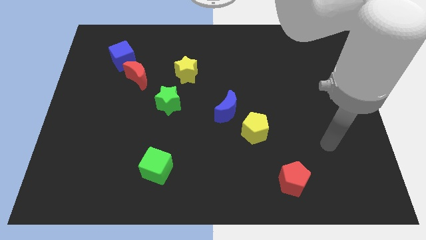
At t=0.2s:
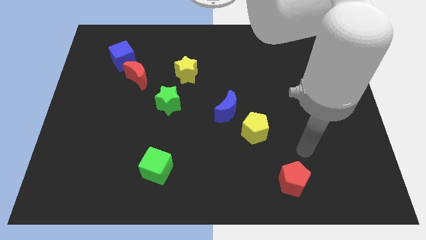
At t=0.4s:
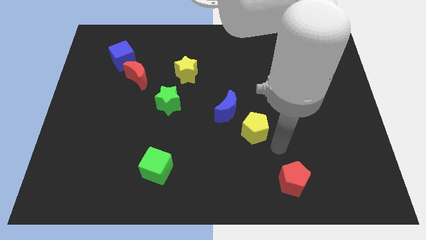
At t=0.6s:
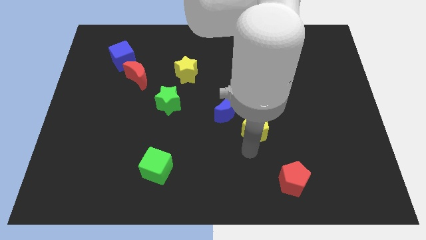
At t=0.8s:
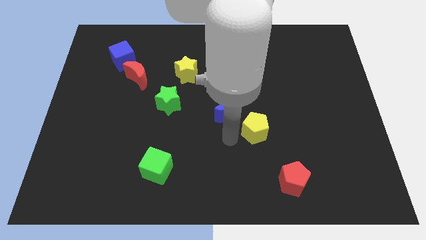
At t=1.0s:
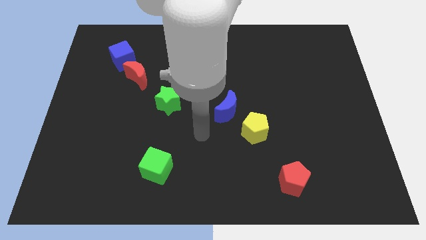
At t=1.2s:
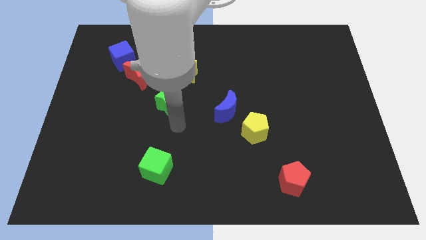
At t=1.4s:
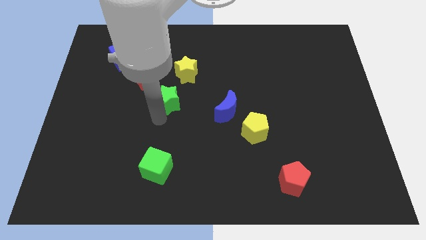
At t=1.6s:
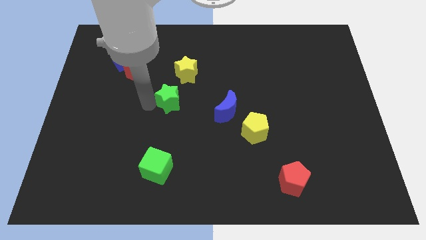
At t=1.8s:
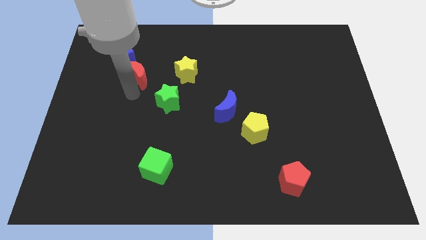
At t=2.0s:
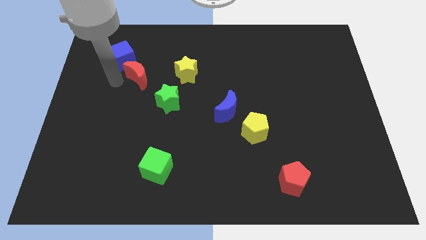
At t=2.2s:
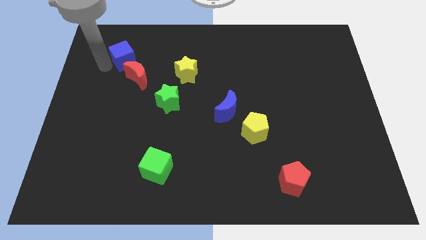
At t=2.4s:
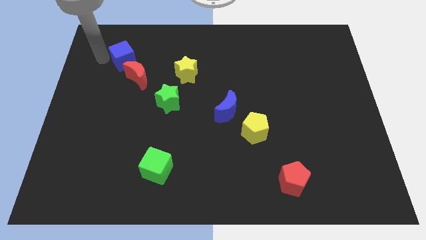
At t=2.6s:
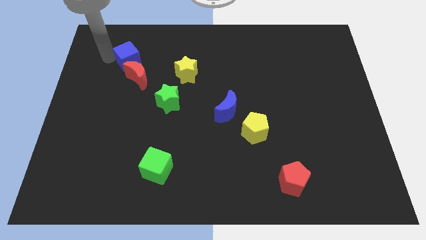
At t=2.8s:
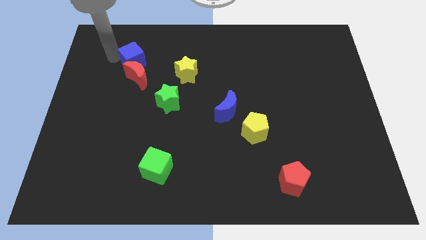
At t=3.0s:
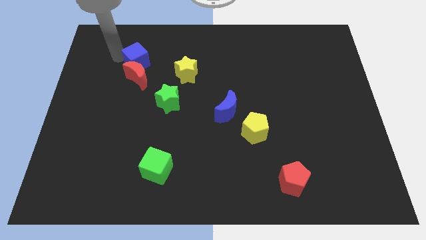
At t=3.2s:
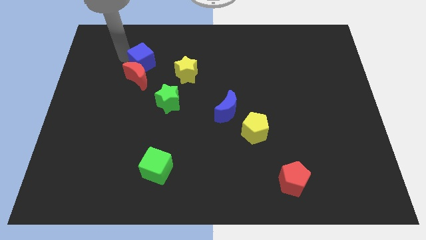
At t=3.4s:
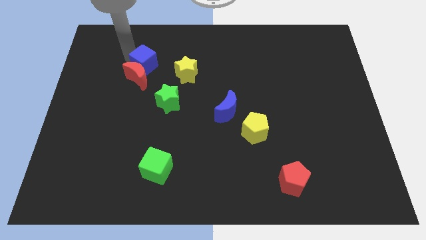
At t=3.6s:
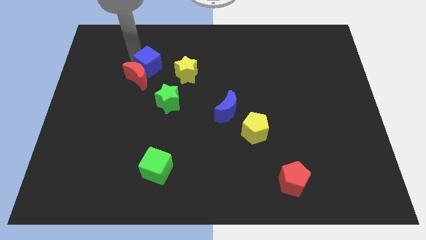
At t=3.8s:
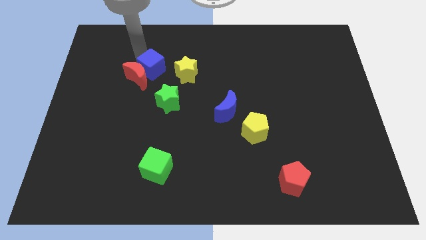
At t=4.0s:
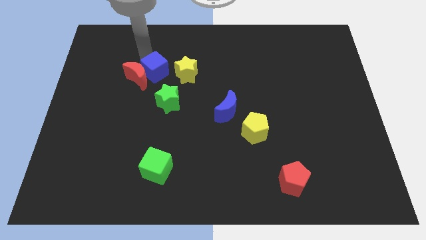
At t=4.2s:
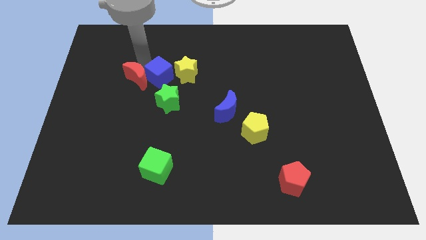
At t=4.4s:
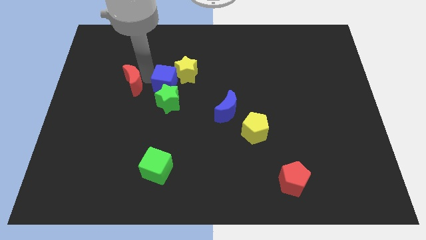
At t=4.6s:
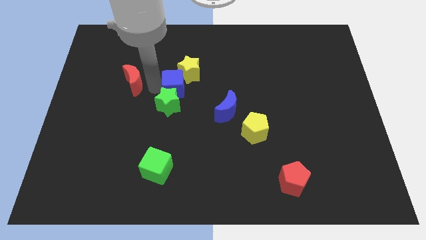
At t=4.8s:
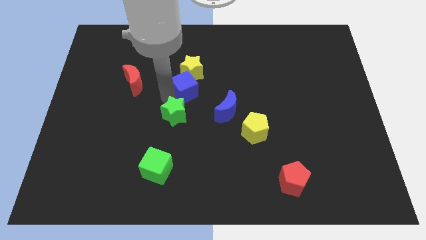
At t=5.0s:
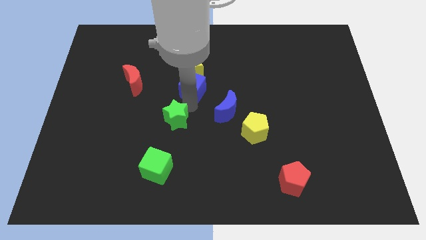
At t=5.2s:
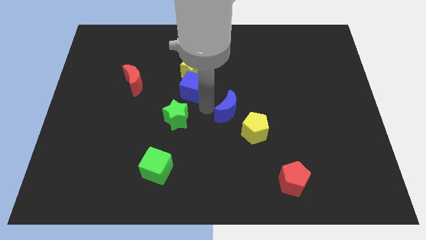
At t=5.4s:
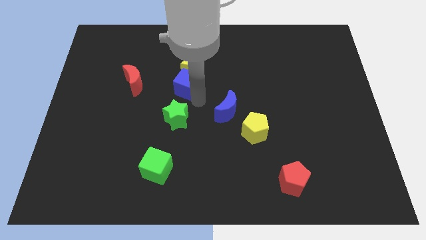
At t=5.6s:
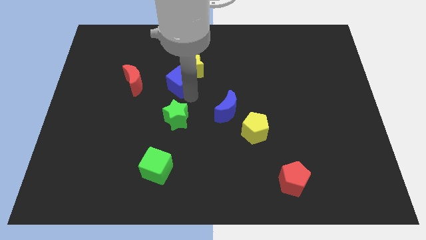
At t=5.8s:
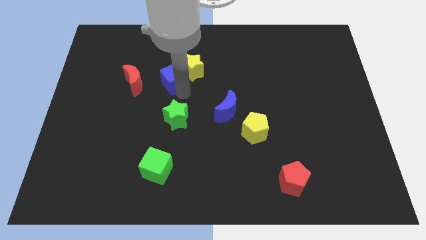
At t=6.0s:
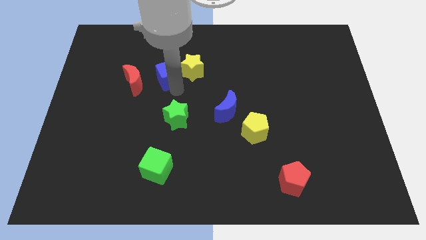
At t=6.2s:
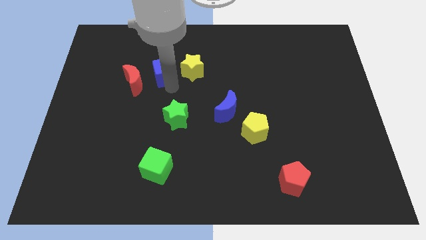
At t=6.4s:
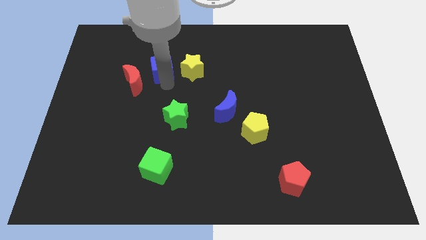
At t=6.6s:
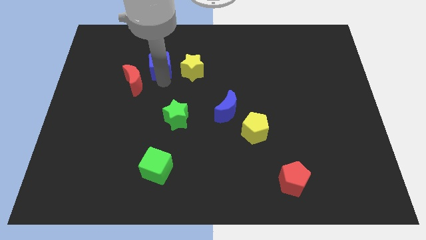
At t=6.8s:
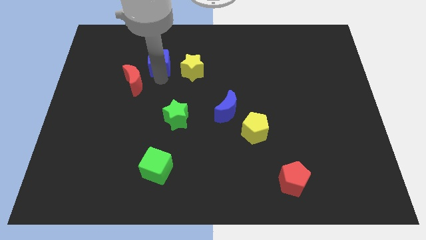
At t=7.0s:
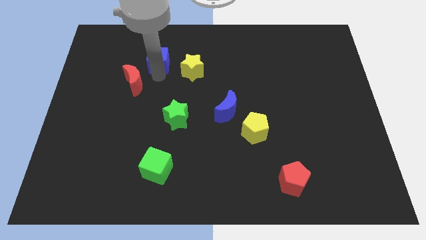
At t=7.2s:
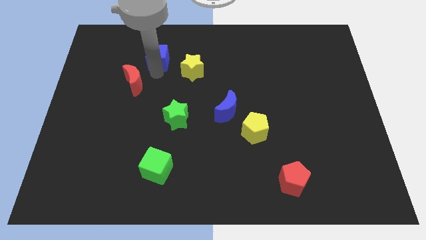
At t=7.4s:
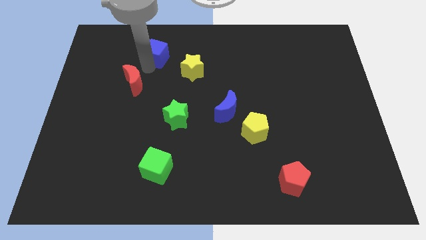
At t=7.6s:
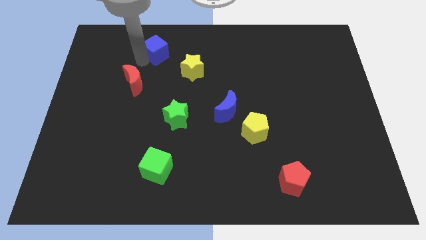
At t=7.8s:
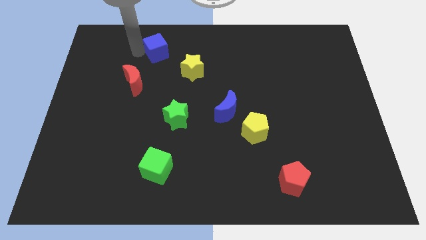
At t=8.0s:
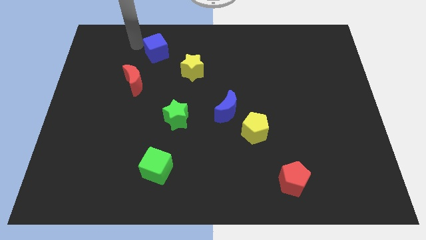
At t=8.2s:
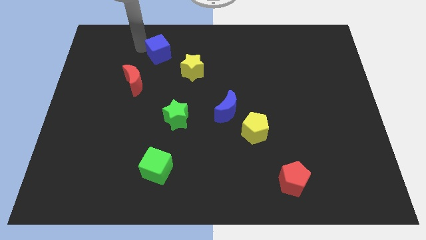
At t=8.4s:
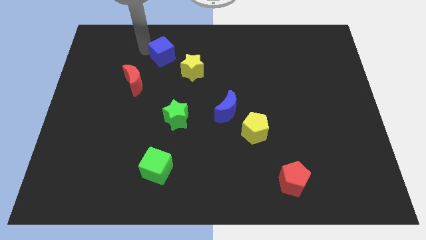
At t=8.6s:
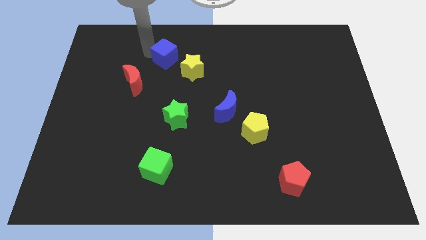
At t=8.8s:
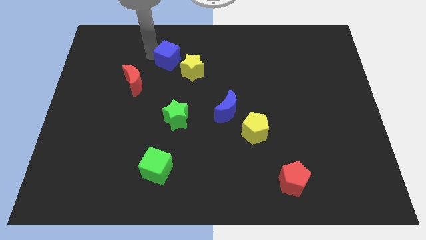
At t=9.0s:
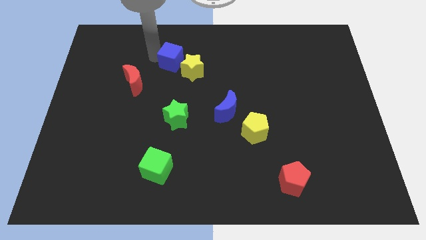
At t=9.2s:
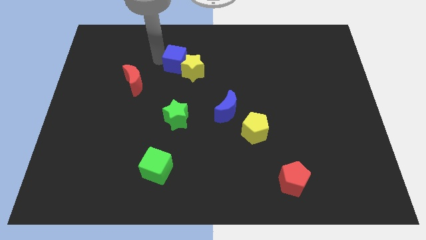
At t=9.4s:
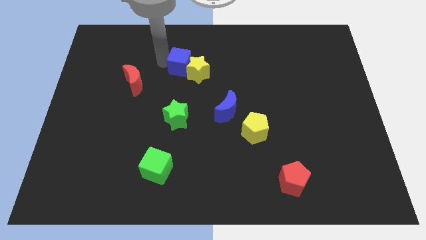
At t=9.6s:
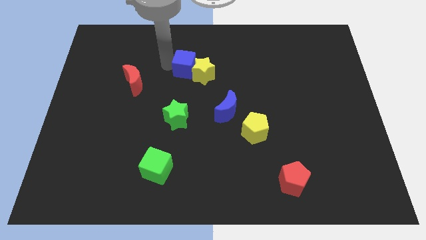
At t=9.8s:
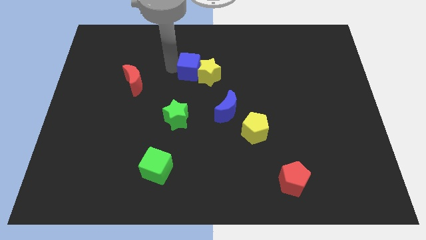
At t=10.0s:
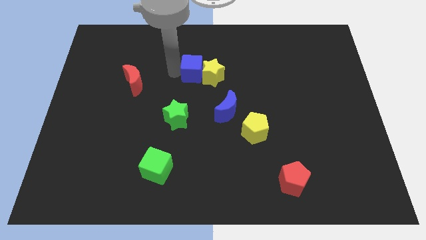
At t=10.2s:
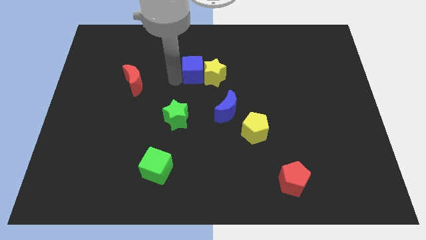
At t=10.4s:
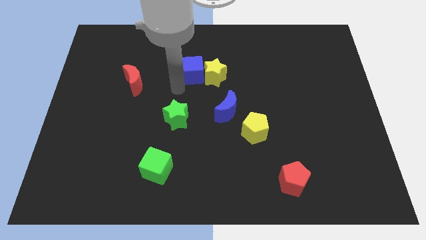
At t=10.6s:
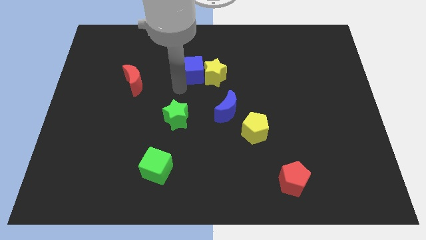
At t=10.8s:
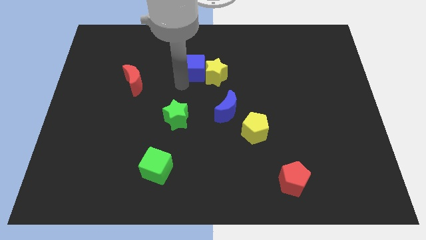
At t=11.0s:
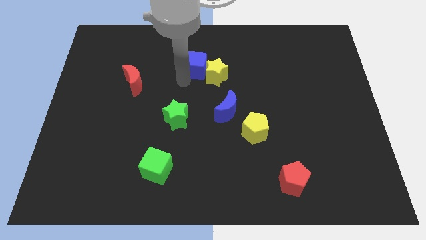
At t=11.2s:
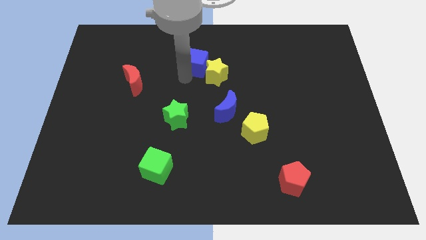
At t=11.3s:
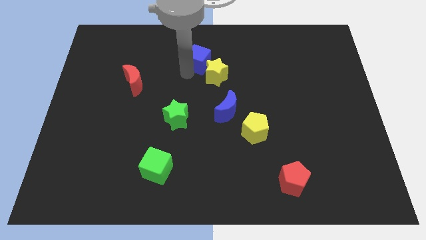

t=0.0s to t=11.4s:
push the blue cube to the right

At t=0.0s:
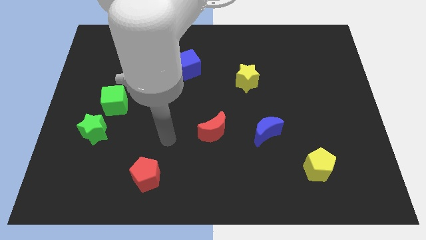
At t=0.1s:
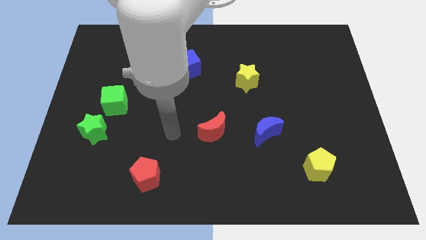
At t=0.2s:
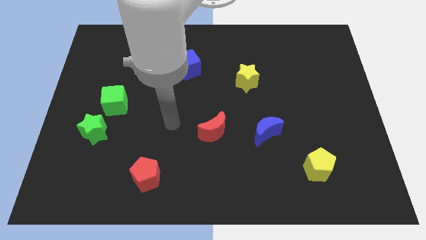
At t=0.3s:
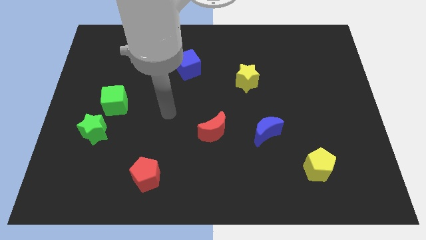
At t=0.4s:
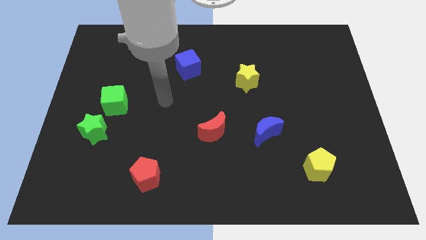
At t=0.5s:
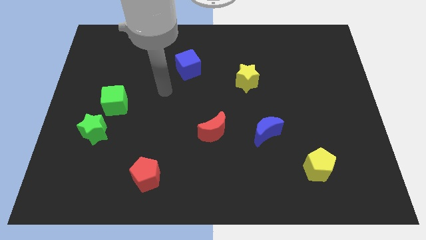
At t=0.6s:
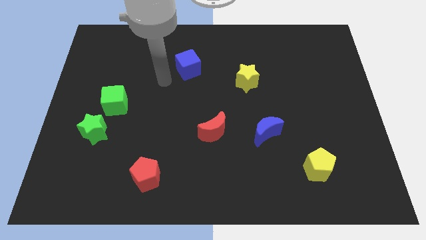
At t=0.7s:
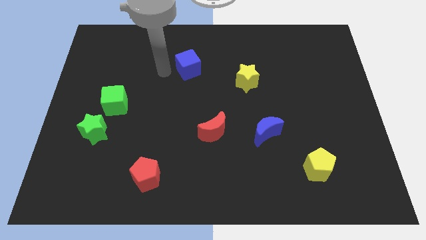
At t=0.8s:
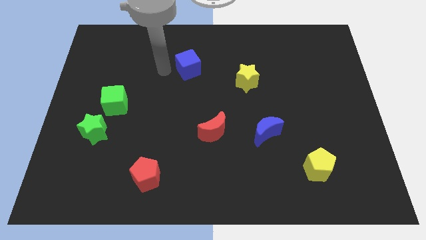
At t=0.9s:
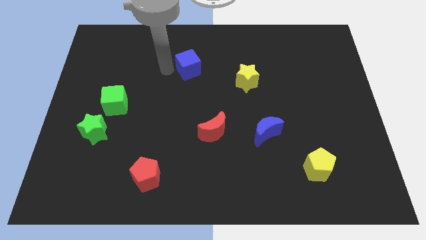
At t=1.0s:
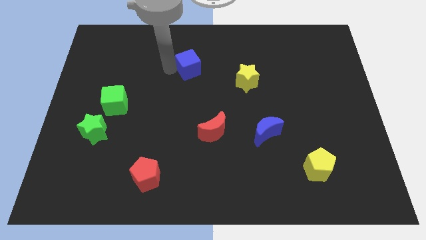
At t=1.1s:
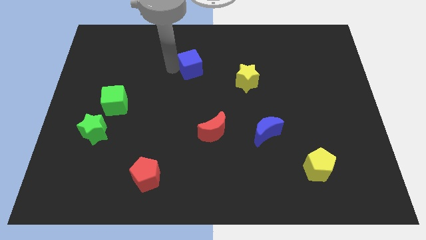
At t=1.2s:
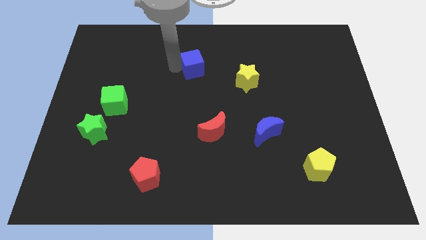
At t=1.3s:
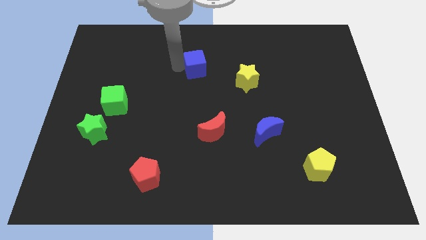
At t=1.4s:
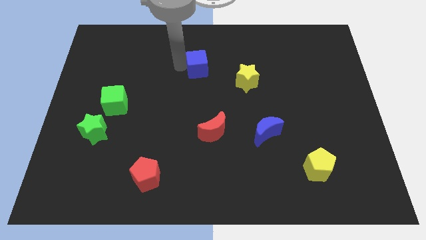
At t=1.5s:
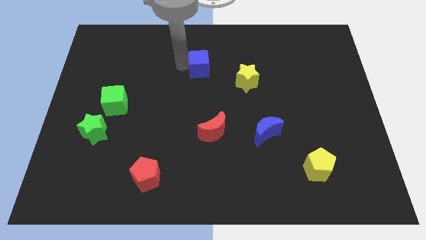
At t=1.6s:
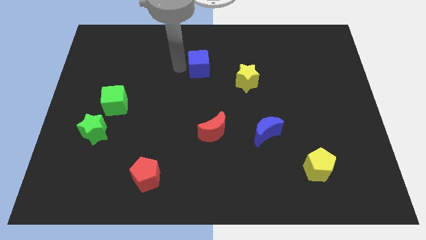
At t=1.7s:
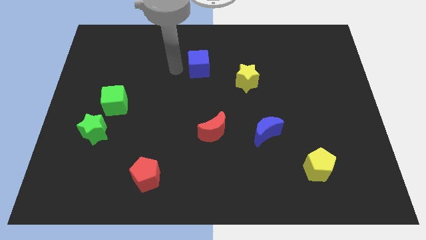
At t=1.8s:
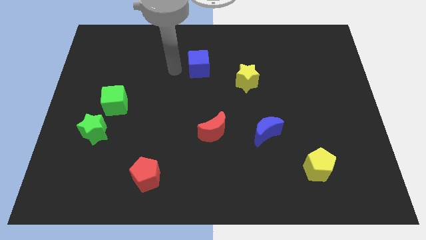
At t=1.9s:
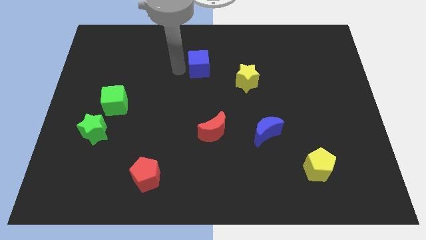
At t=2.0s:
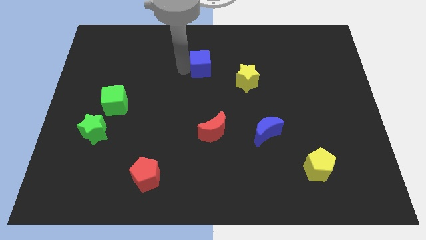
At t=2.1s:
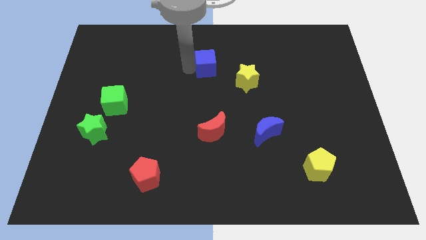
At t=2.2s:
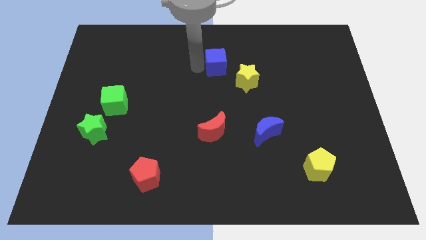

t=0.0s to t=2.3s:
slightly move the blue cube right

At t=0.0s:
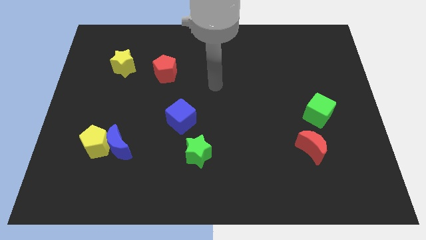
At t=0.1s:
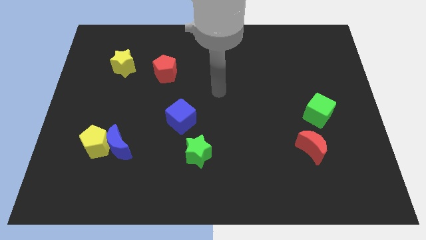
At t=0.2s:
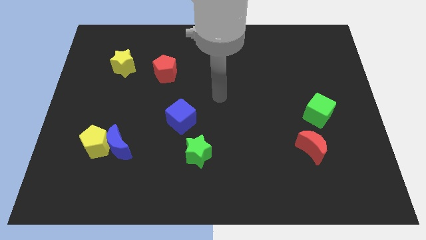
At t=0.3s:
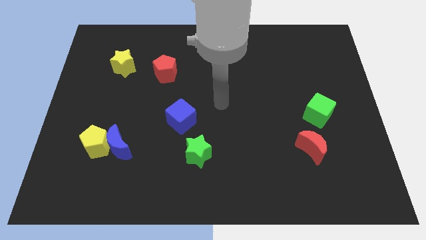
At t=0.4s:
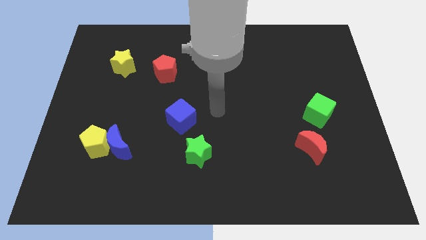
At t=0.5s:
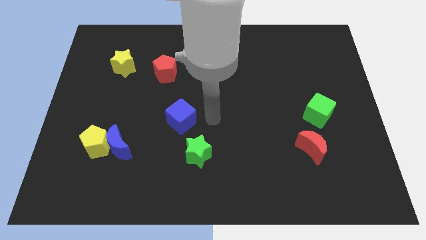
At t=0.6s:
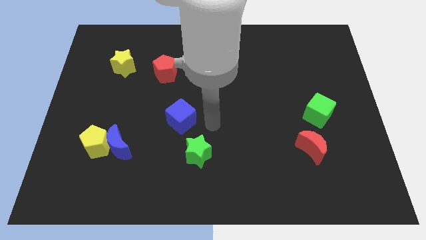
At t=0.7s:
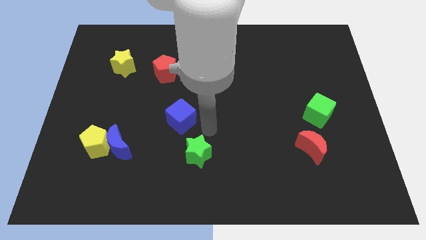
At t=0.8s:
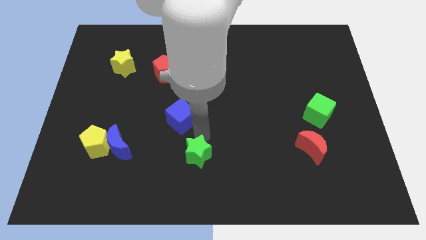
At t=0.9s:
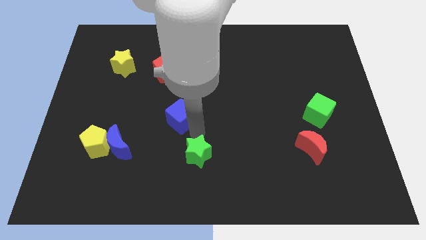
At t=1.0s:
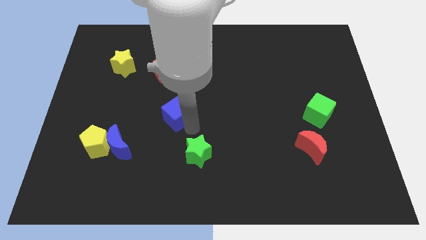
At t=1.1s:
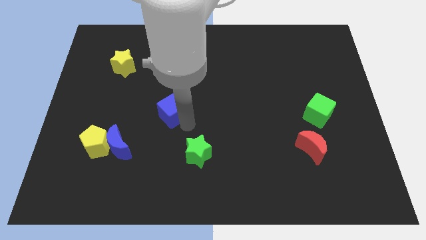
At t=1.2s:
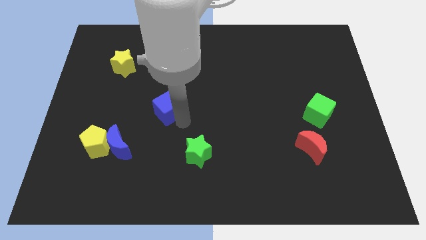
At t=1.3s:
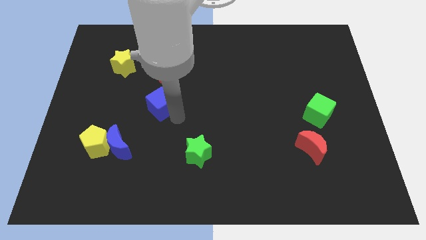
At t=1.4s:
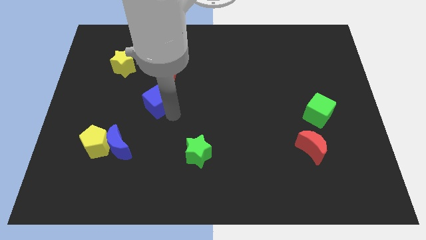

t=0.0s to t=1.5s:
slide the blue cube upwards and left somewhat
